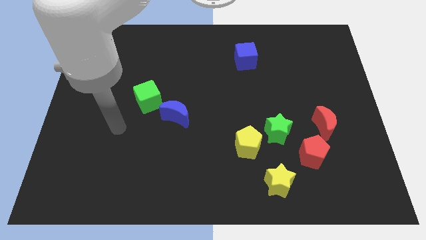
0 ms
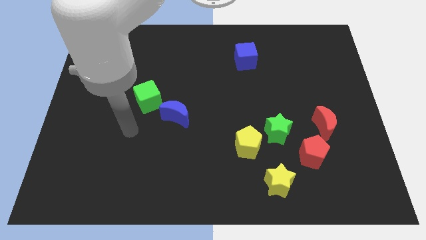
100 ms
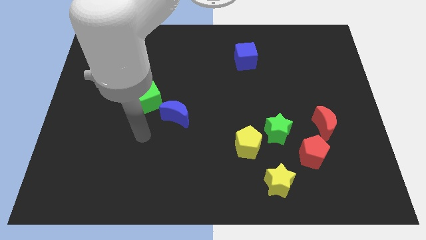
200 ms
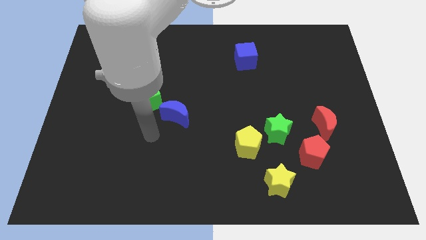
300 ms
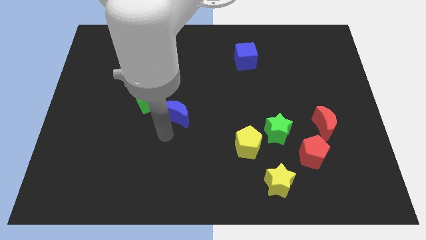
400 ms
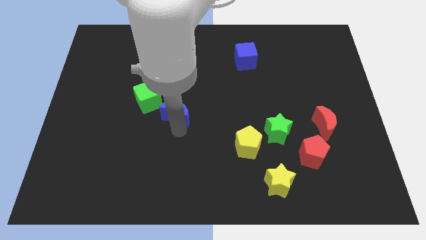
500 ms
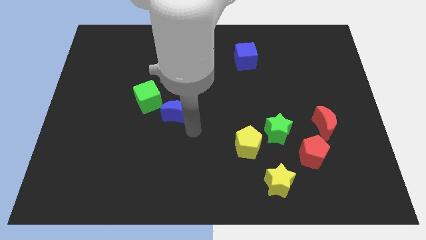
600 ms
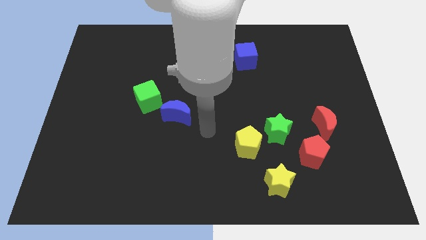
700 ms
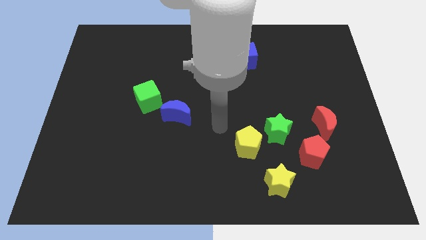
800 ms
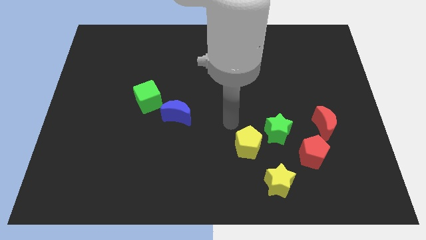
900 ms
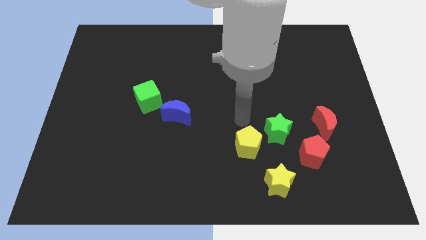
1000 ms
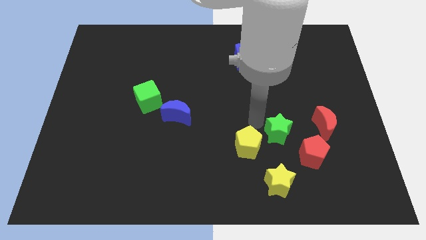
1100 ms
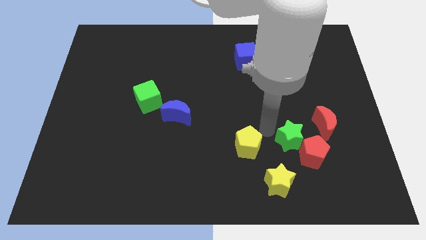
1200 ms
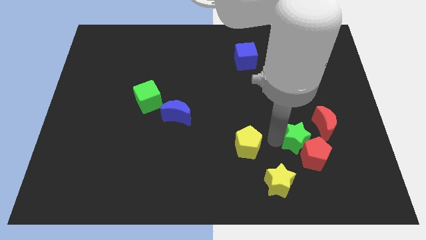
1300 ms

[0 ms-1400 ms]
move the yellow pentagon away from the green star

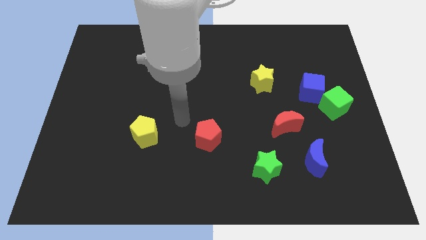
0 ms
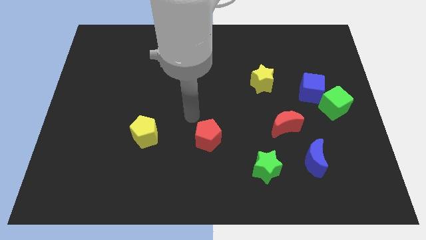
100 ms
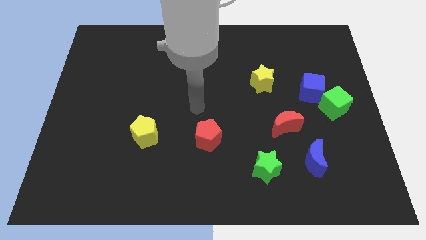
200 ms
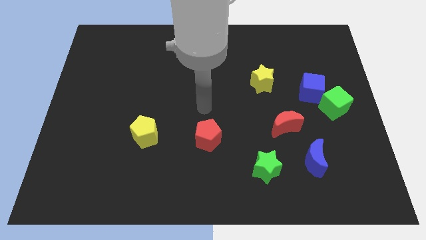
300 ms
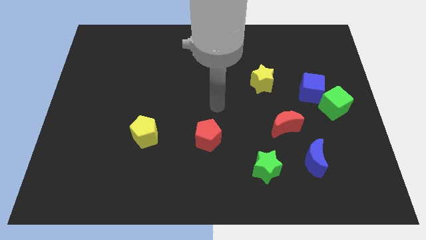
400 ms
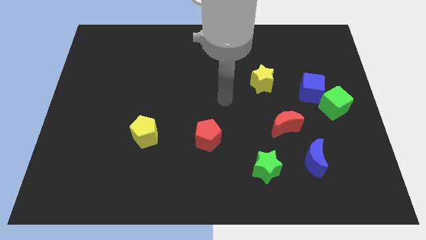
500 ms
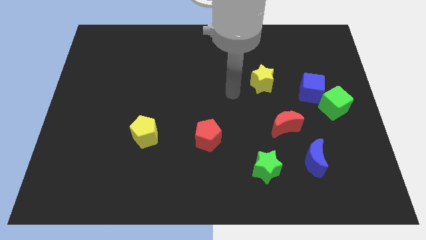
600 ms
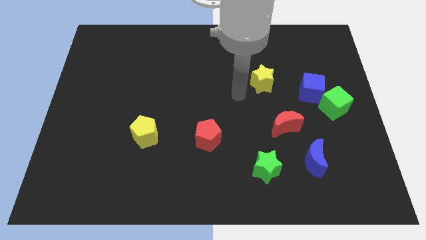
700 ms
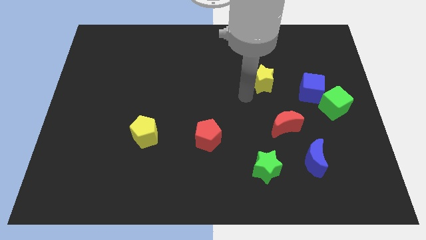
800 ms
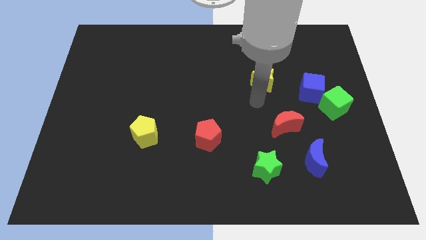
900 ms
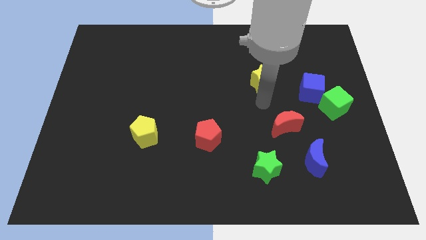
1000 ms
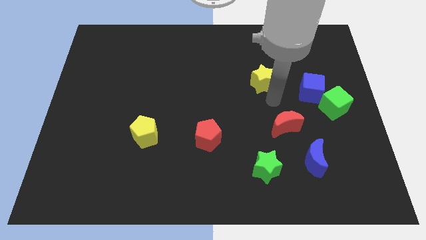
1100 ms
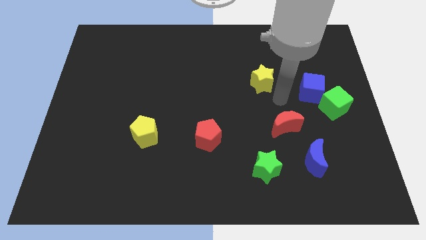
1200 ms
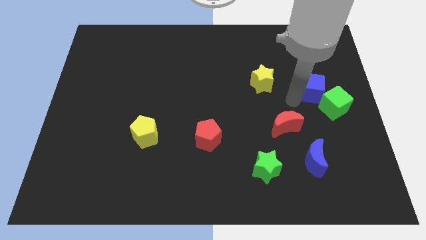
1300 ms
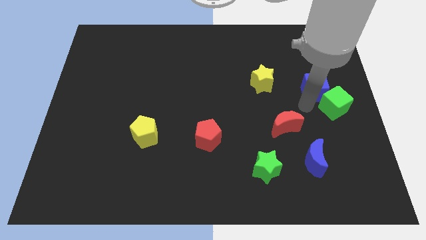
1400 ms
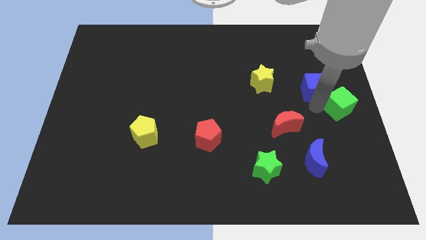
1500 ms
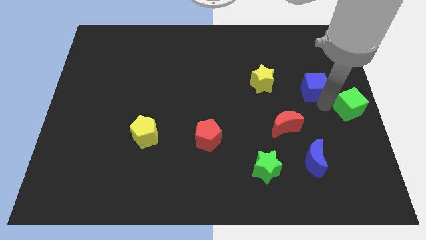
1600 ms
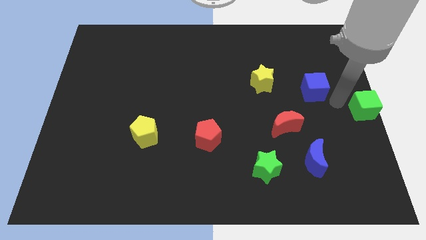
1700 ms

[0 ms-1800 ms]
pull the blue cube apart from the green cube

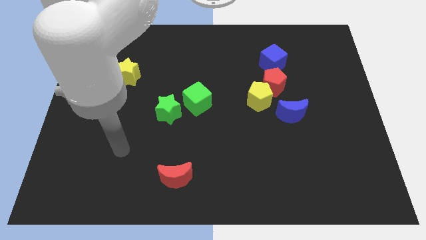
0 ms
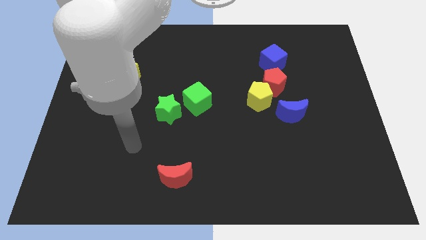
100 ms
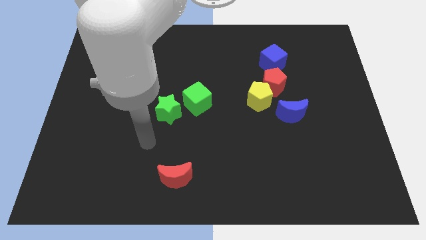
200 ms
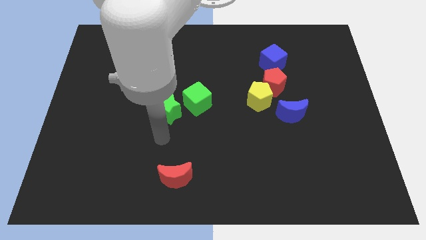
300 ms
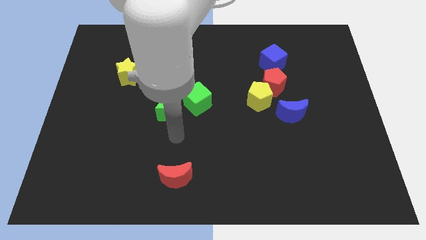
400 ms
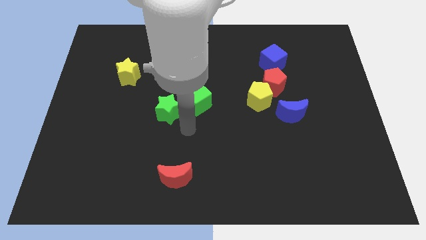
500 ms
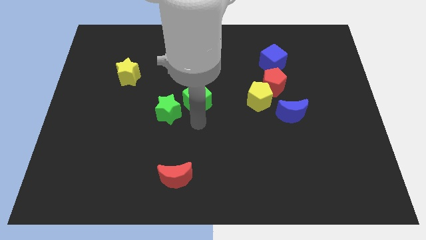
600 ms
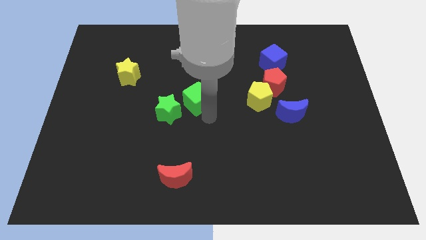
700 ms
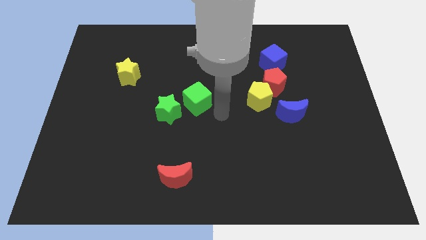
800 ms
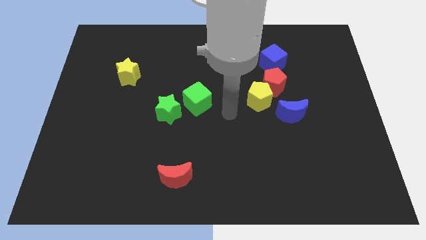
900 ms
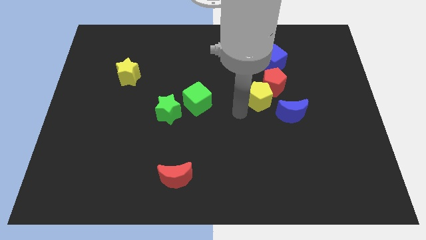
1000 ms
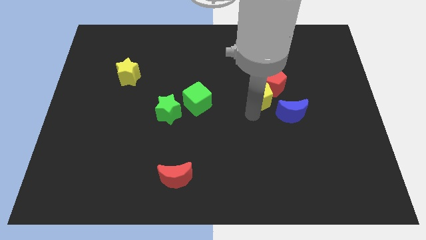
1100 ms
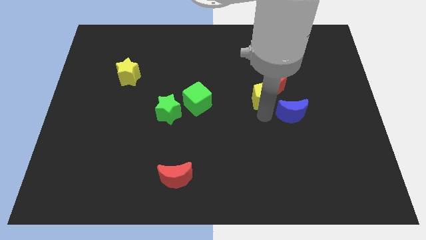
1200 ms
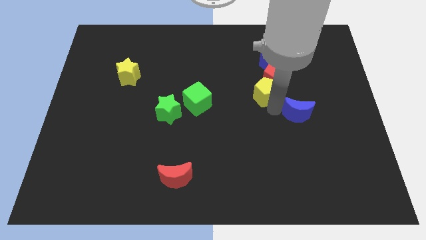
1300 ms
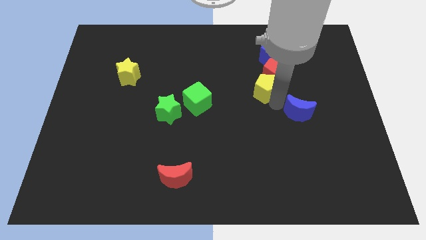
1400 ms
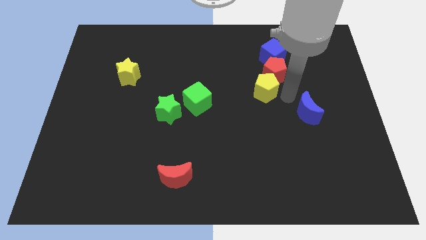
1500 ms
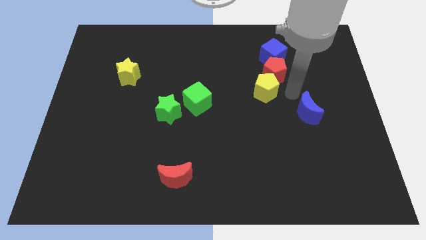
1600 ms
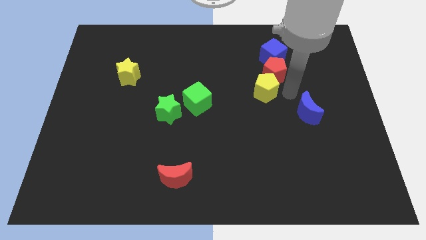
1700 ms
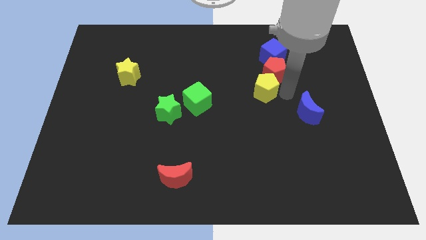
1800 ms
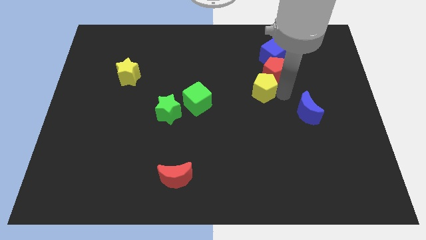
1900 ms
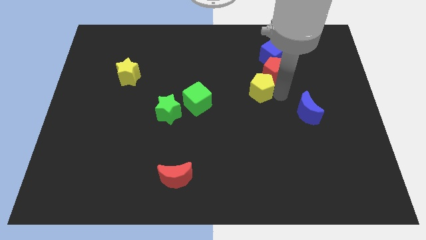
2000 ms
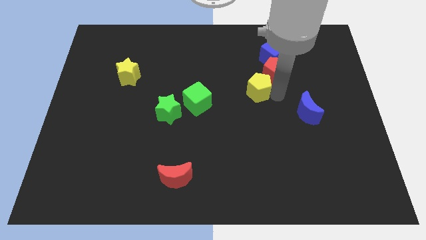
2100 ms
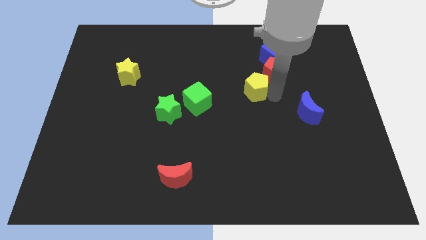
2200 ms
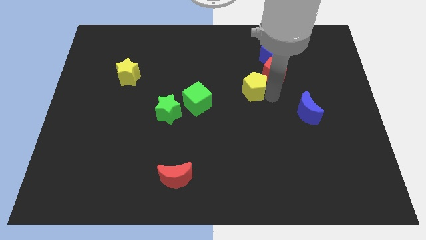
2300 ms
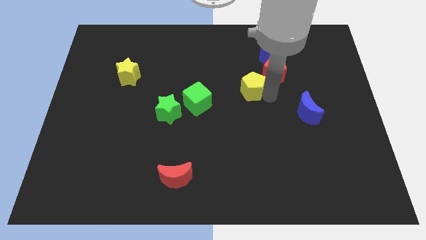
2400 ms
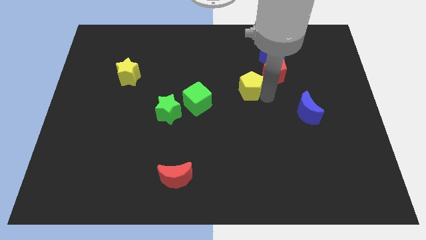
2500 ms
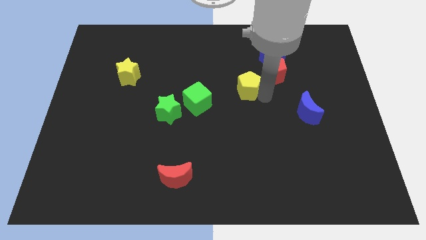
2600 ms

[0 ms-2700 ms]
pull the yellow pentagon apart from the red pentagon and blue moon

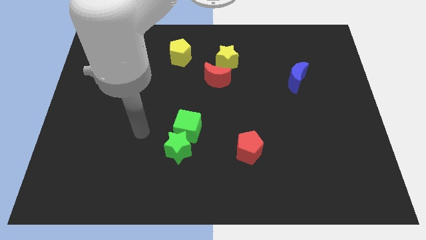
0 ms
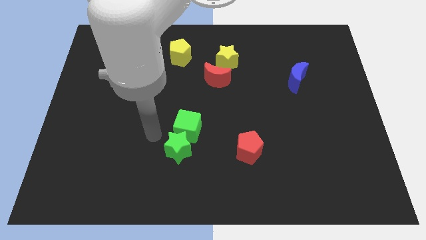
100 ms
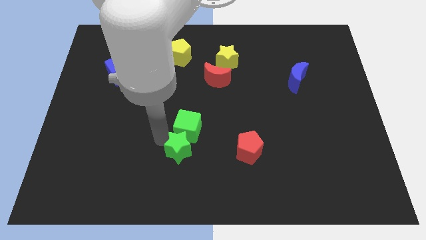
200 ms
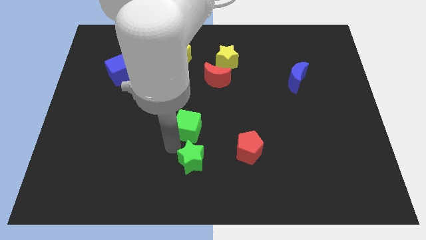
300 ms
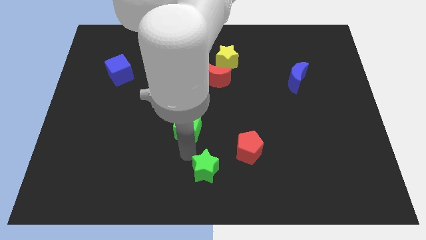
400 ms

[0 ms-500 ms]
pull the green cube apart from the green star

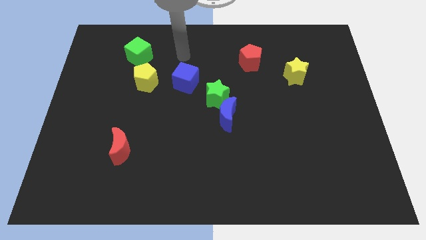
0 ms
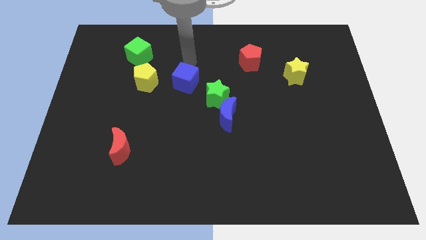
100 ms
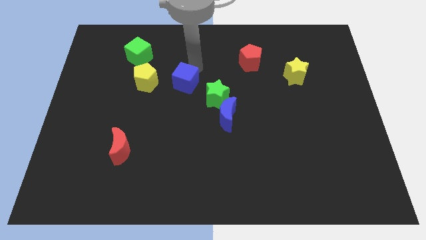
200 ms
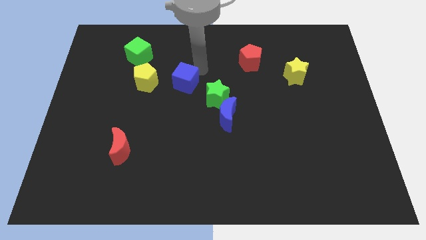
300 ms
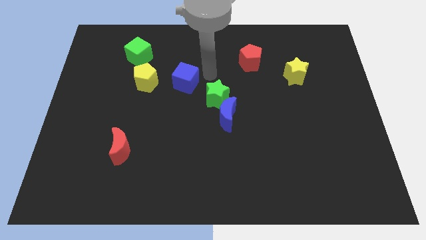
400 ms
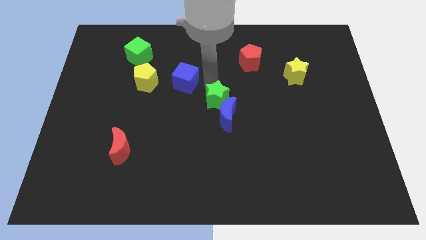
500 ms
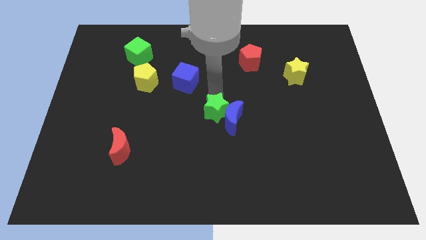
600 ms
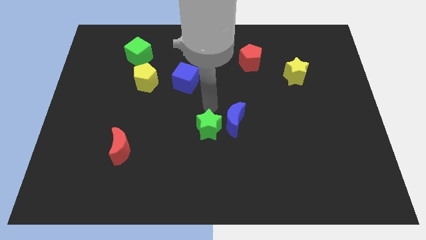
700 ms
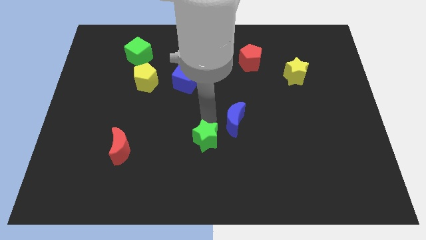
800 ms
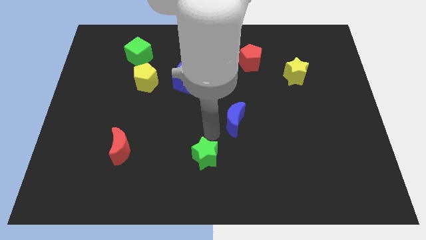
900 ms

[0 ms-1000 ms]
pull the blue moon apart from the green star

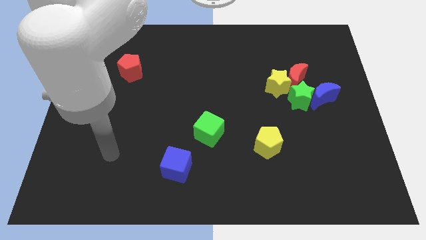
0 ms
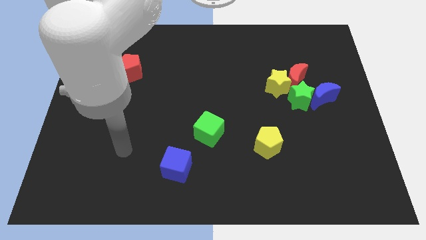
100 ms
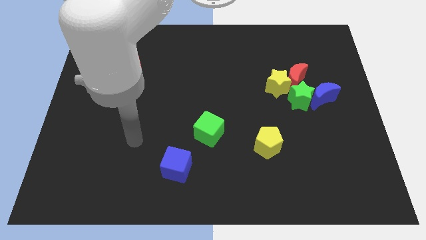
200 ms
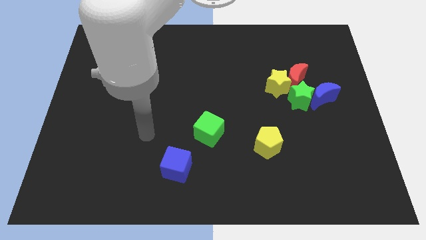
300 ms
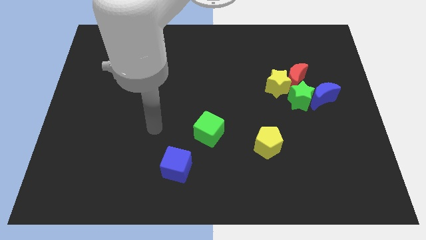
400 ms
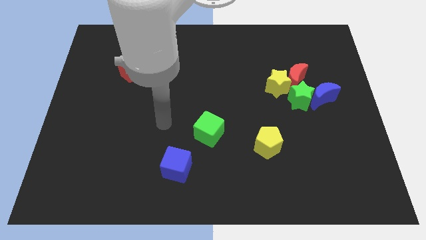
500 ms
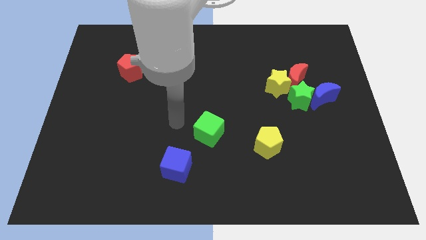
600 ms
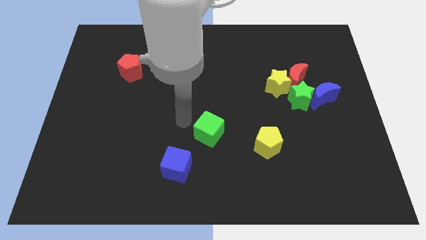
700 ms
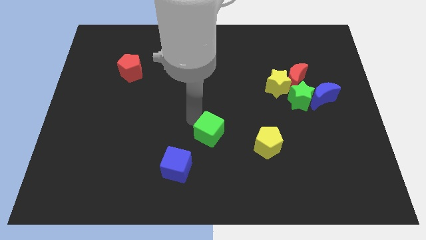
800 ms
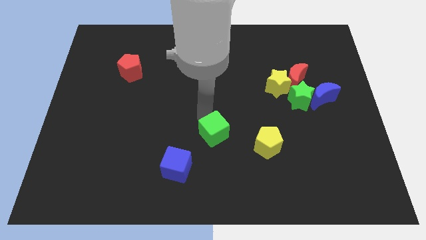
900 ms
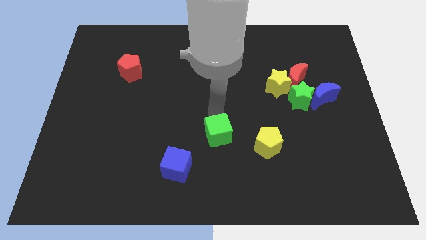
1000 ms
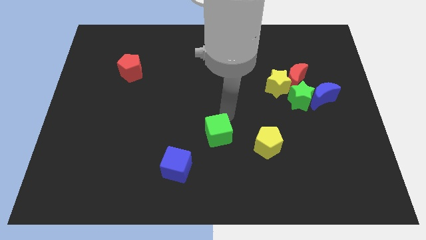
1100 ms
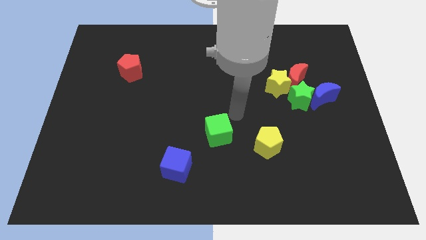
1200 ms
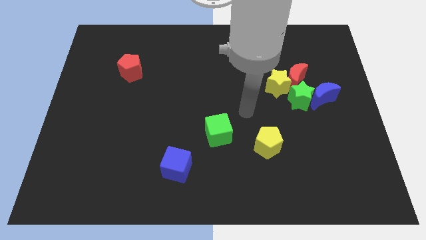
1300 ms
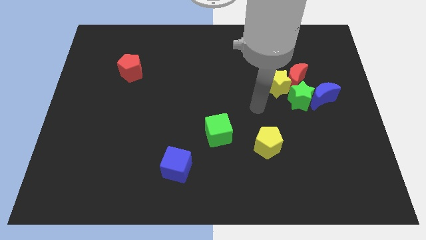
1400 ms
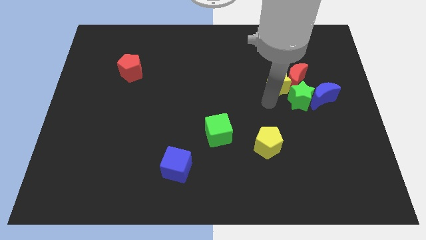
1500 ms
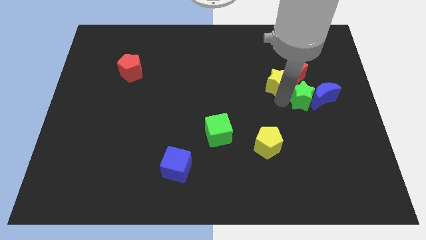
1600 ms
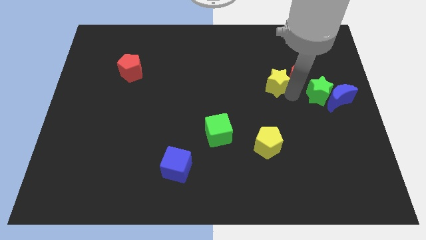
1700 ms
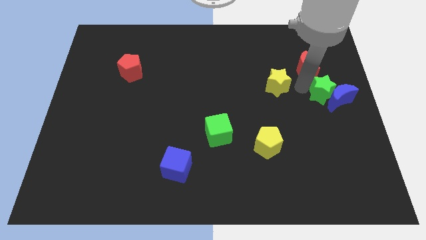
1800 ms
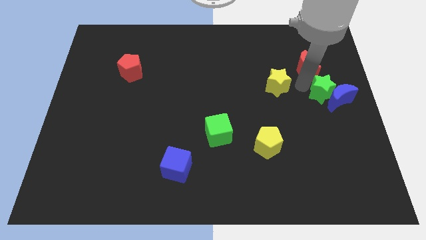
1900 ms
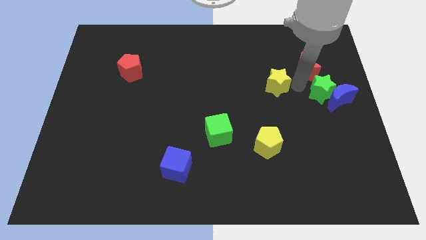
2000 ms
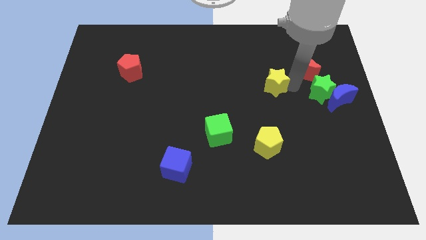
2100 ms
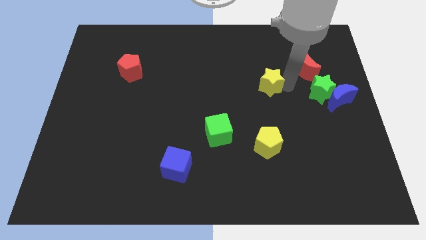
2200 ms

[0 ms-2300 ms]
separate the yellow star from the red moon and green star
